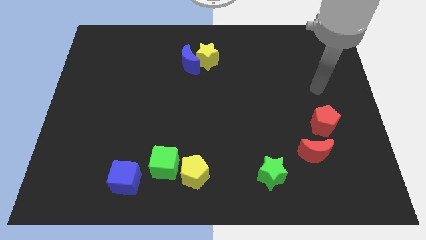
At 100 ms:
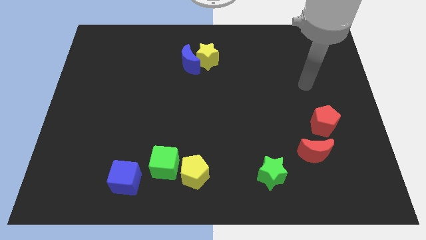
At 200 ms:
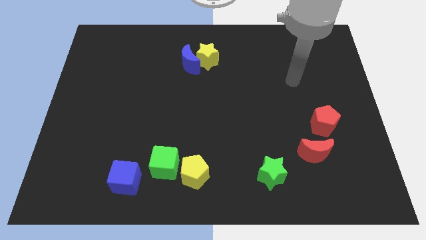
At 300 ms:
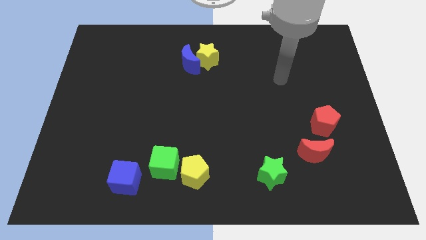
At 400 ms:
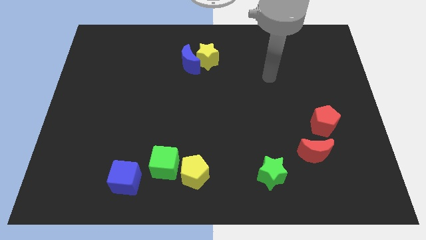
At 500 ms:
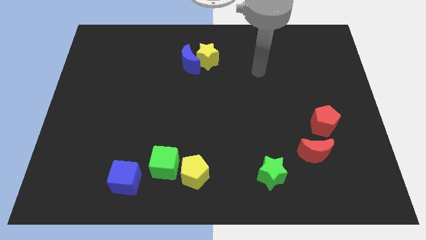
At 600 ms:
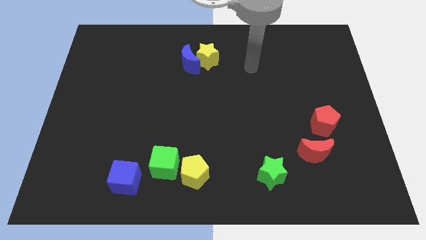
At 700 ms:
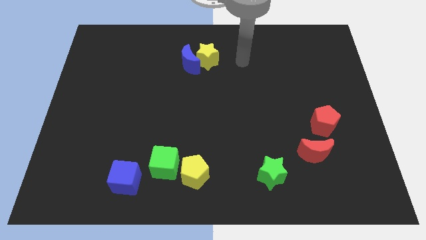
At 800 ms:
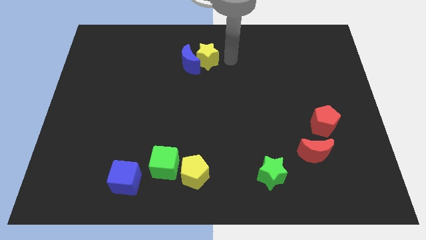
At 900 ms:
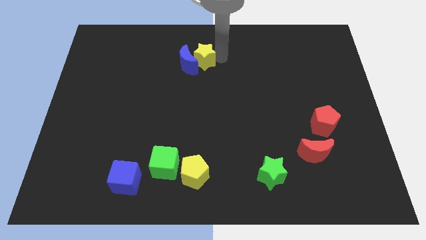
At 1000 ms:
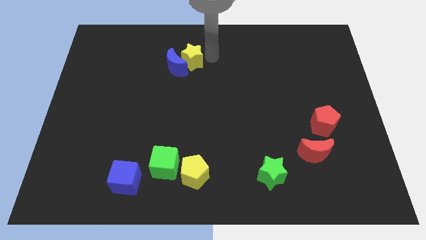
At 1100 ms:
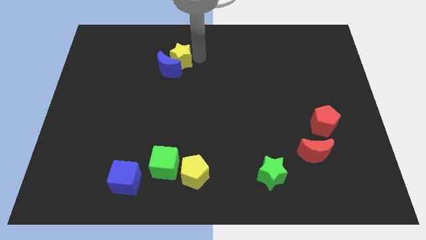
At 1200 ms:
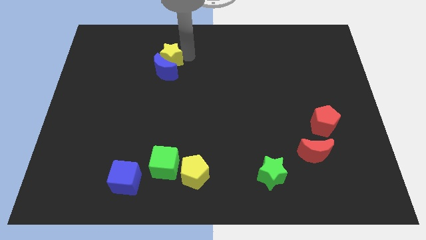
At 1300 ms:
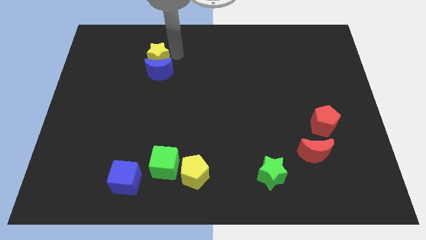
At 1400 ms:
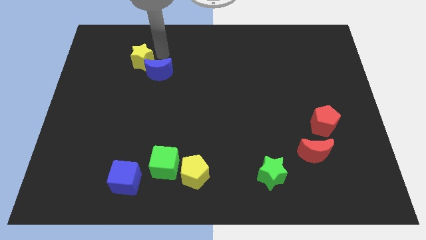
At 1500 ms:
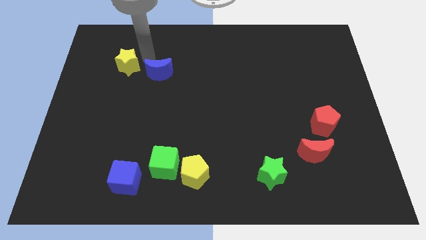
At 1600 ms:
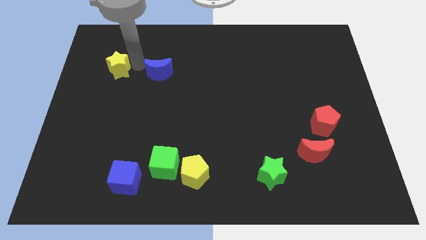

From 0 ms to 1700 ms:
separate the blue moon from the yellow star

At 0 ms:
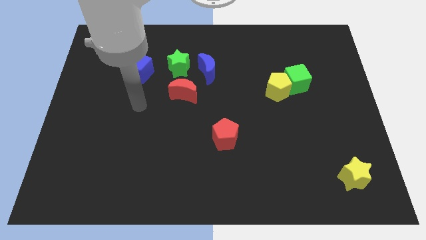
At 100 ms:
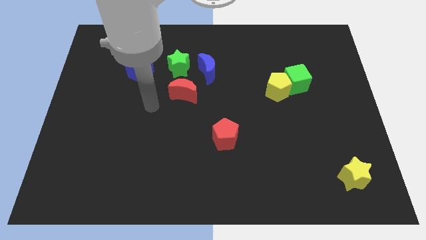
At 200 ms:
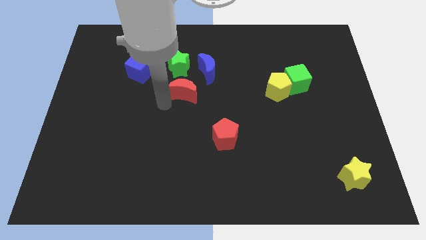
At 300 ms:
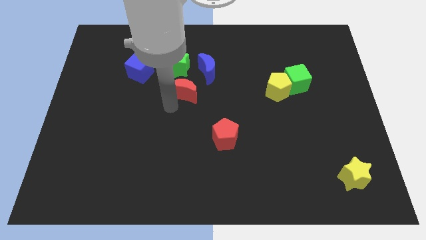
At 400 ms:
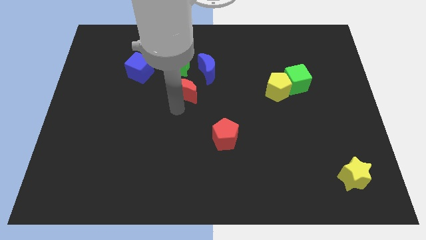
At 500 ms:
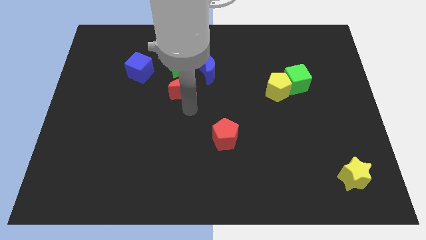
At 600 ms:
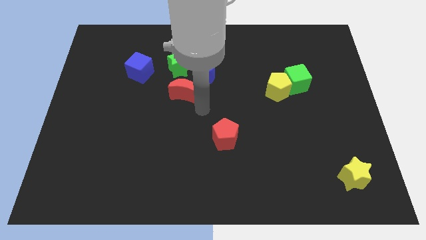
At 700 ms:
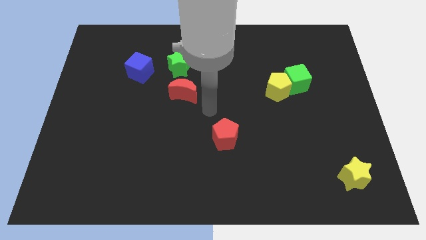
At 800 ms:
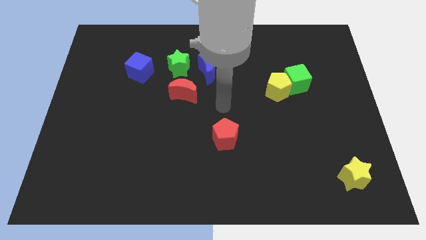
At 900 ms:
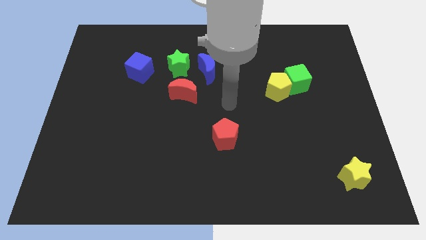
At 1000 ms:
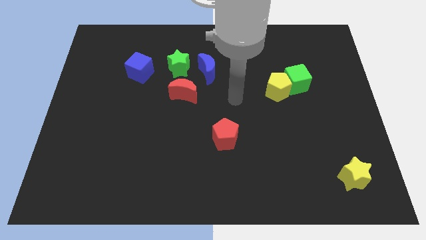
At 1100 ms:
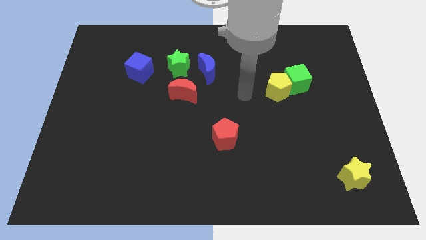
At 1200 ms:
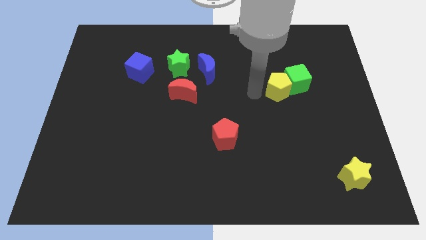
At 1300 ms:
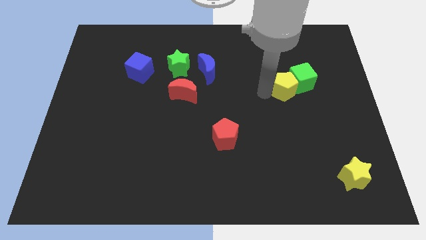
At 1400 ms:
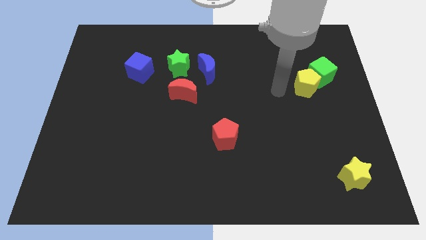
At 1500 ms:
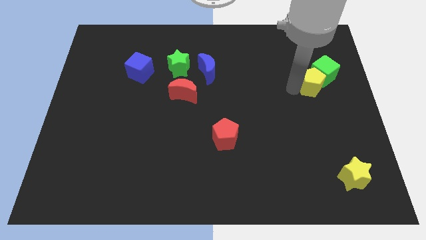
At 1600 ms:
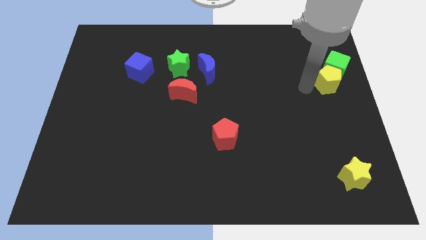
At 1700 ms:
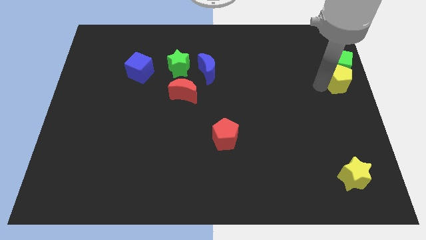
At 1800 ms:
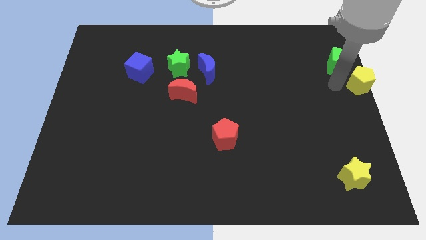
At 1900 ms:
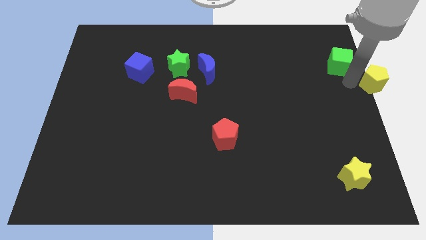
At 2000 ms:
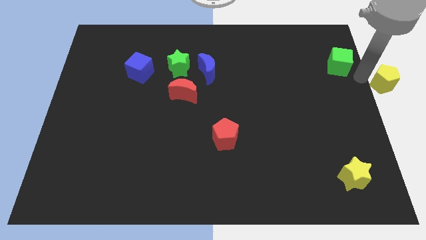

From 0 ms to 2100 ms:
move the green cube away from the yellow pentagon

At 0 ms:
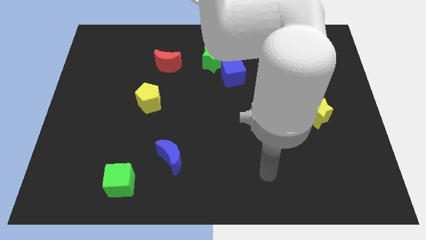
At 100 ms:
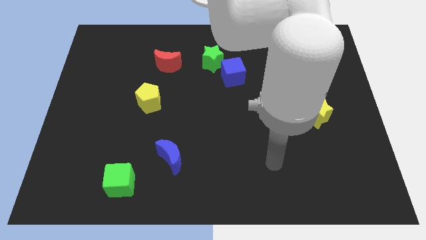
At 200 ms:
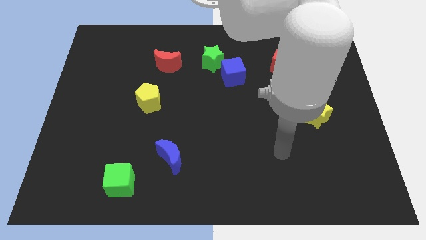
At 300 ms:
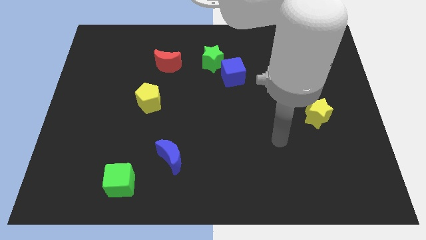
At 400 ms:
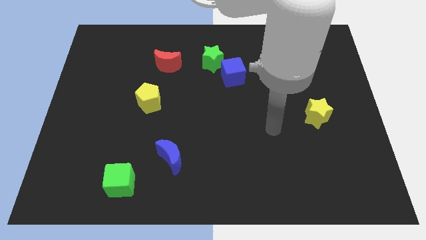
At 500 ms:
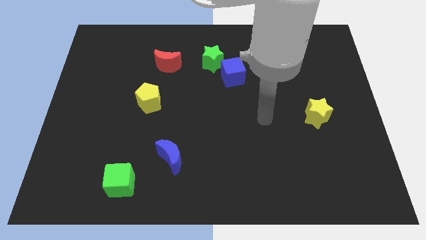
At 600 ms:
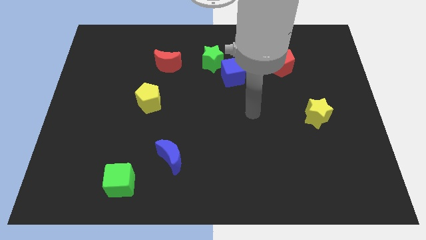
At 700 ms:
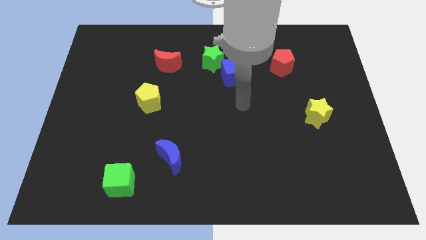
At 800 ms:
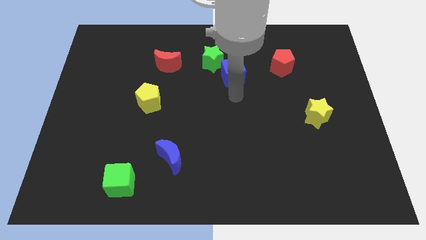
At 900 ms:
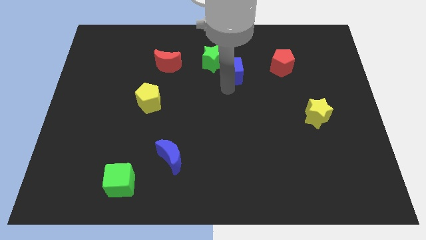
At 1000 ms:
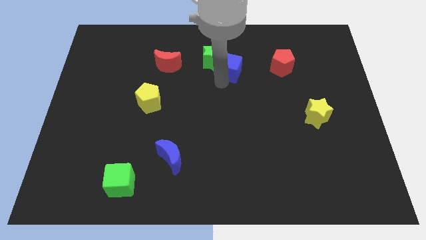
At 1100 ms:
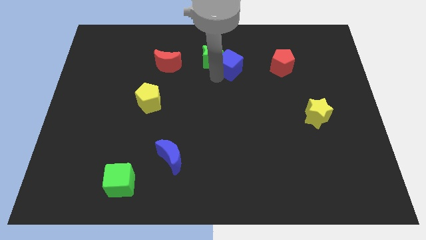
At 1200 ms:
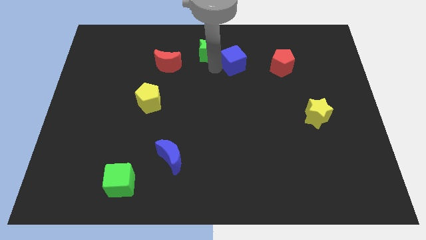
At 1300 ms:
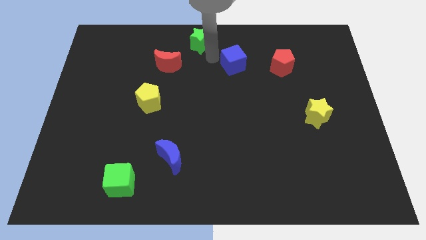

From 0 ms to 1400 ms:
pull the blue cube apart from the green star

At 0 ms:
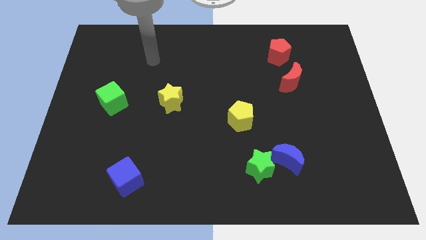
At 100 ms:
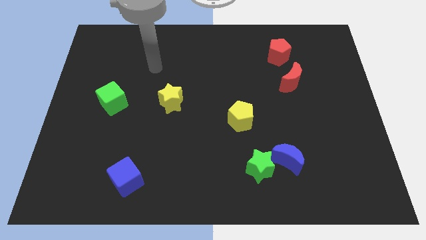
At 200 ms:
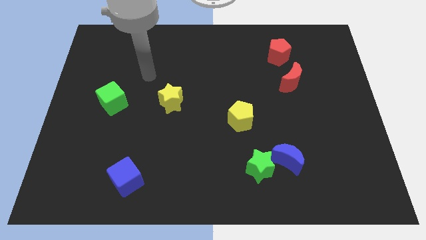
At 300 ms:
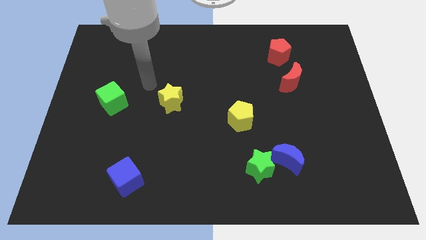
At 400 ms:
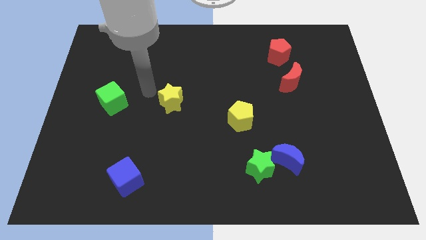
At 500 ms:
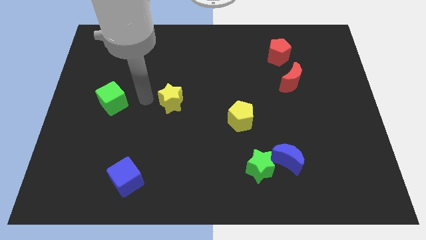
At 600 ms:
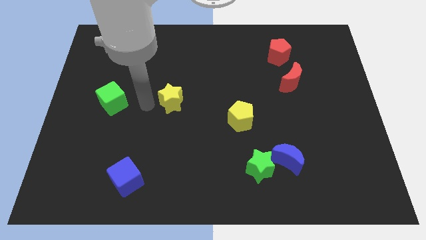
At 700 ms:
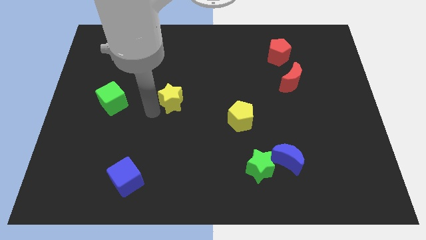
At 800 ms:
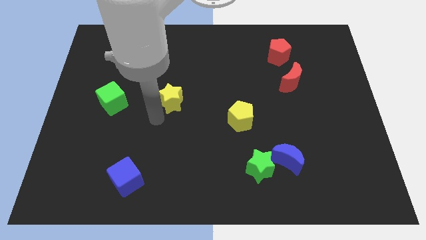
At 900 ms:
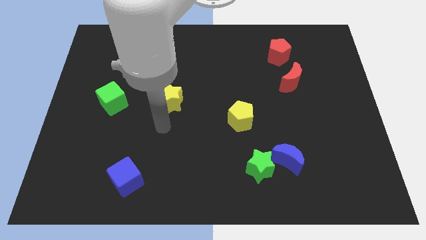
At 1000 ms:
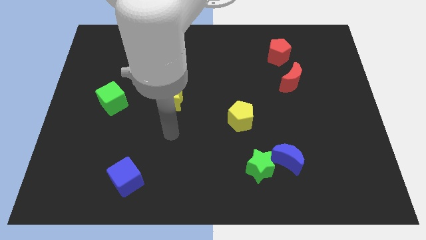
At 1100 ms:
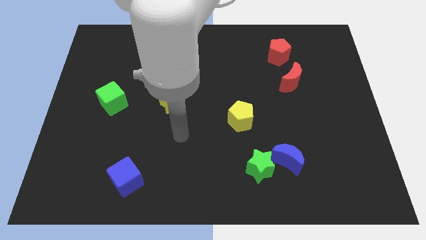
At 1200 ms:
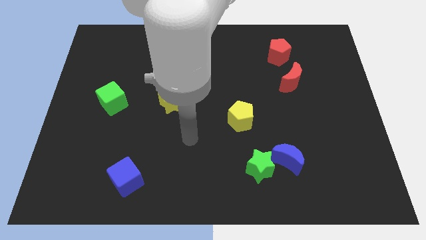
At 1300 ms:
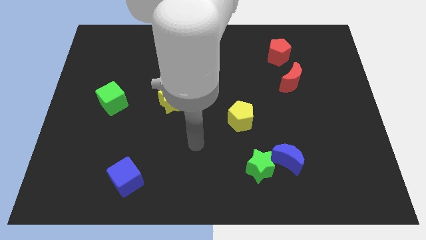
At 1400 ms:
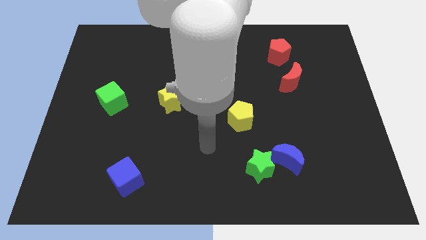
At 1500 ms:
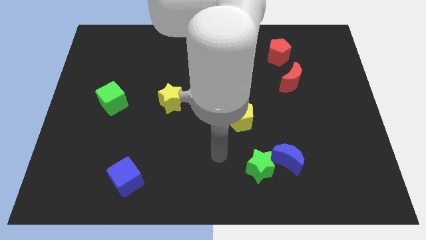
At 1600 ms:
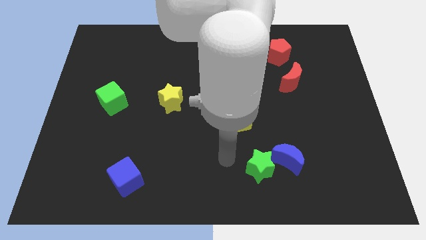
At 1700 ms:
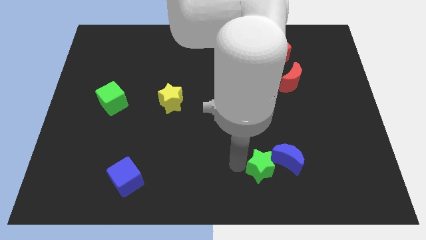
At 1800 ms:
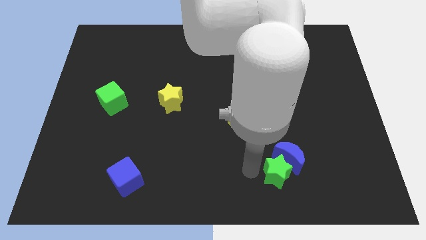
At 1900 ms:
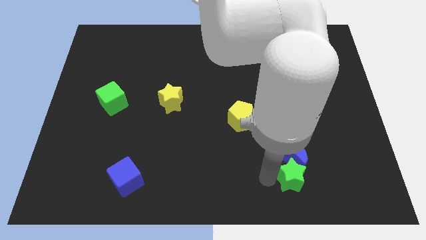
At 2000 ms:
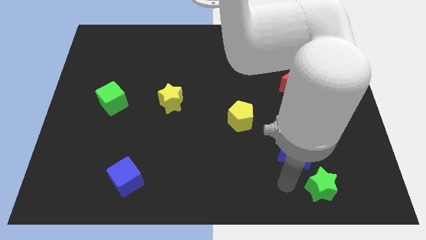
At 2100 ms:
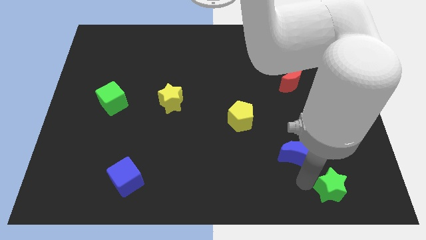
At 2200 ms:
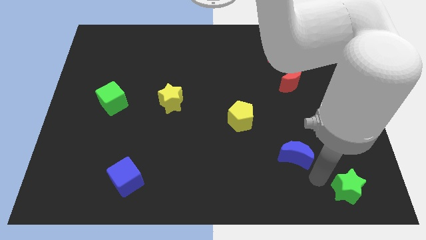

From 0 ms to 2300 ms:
separate the blue moon from the green star

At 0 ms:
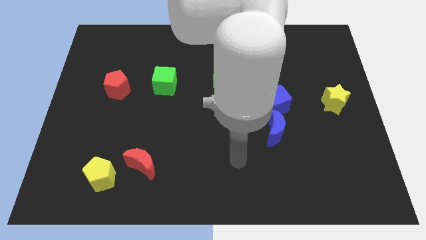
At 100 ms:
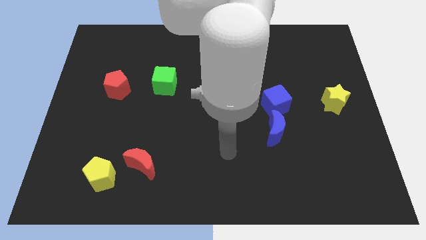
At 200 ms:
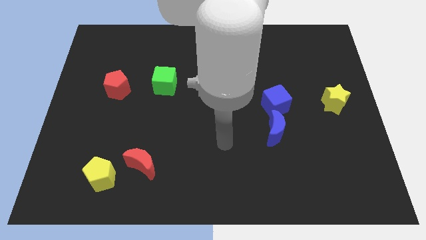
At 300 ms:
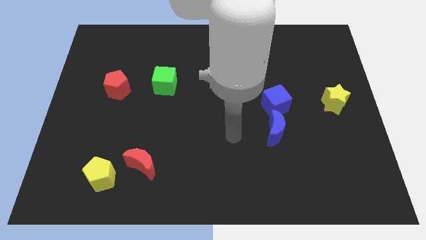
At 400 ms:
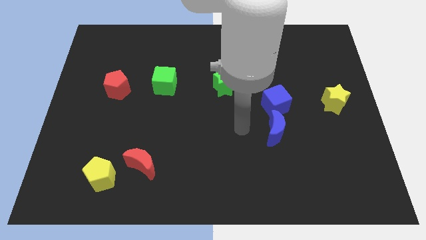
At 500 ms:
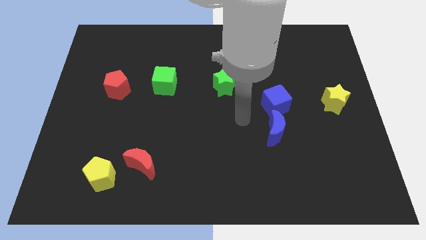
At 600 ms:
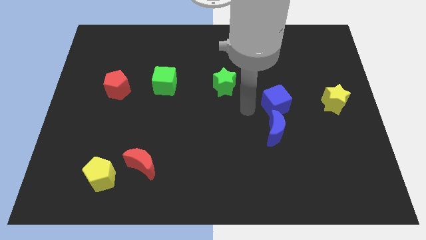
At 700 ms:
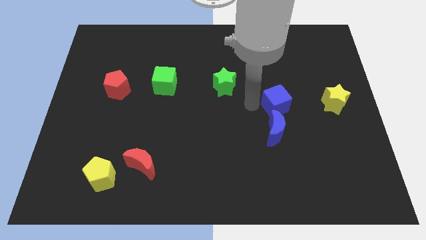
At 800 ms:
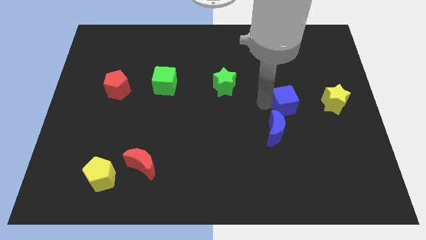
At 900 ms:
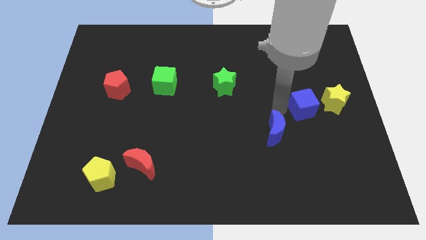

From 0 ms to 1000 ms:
move the blue moon away from the blue cube

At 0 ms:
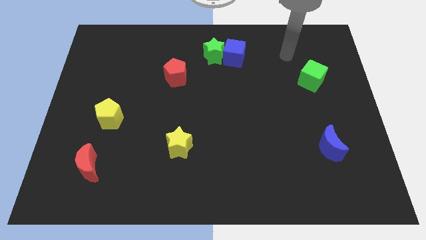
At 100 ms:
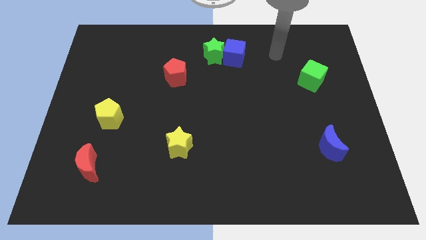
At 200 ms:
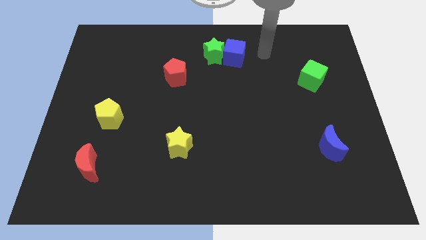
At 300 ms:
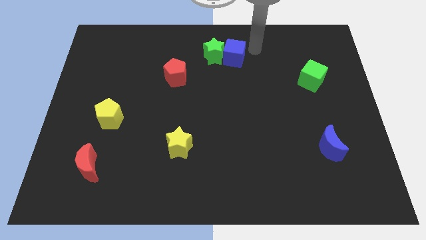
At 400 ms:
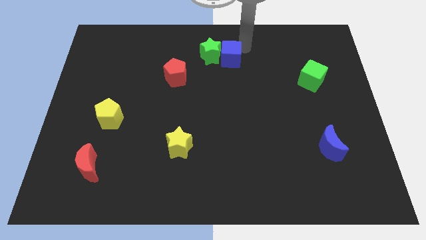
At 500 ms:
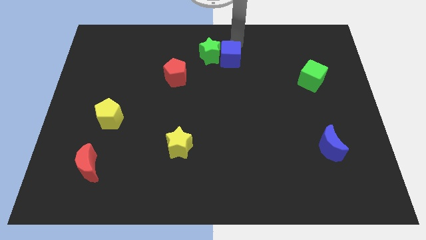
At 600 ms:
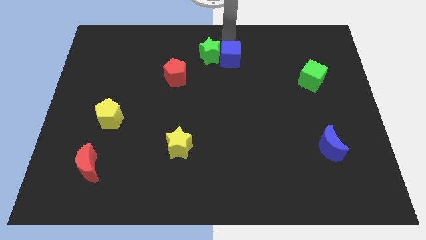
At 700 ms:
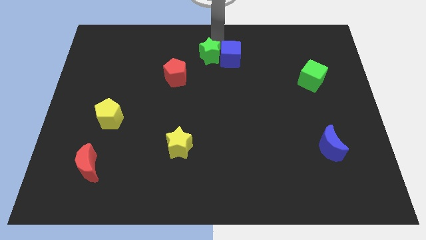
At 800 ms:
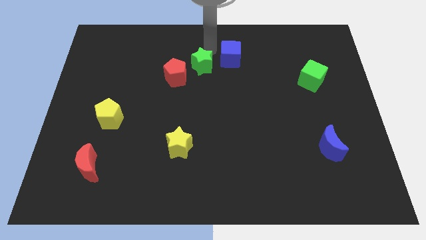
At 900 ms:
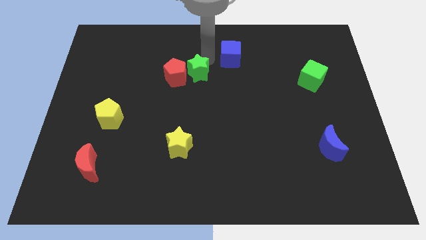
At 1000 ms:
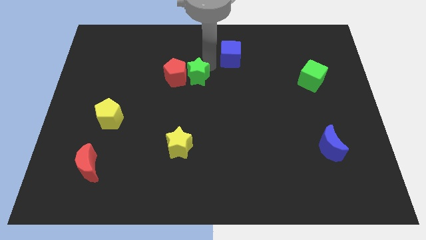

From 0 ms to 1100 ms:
separate the blue cube from the green star
